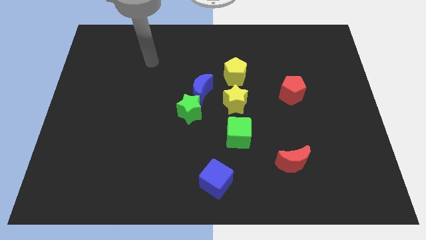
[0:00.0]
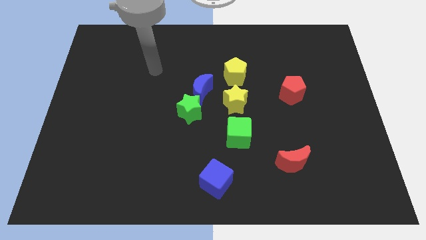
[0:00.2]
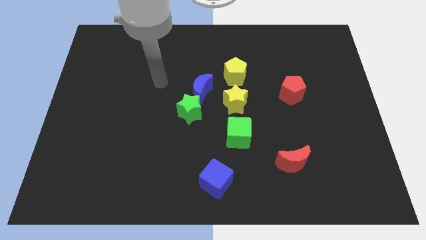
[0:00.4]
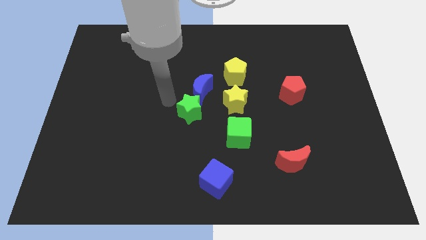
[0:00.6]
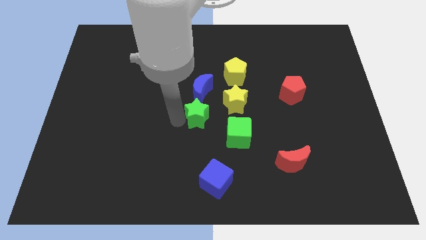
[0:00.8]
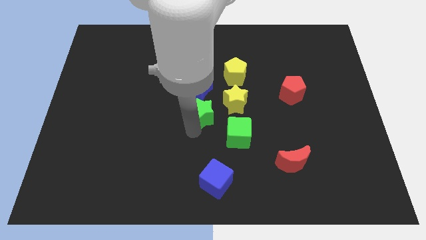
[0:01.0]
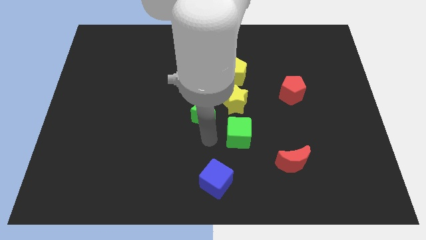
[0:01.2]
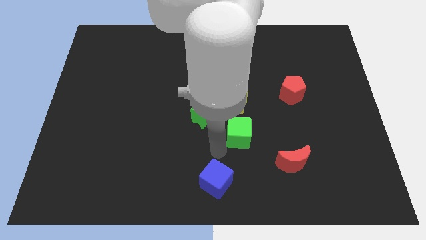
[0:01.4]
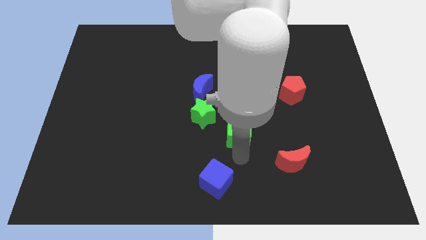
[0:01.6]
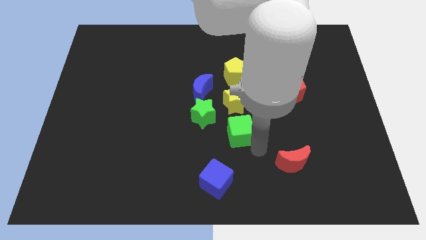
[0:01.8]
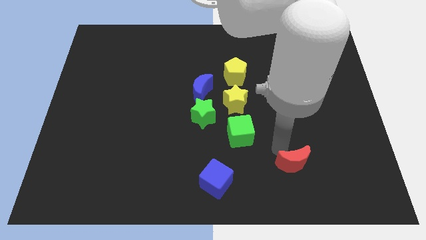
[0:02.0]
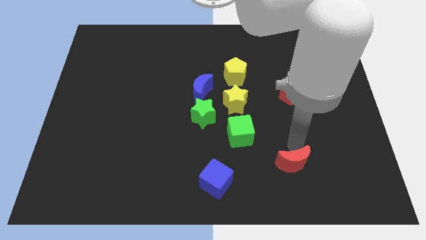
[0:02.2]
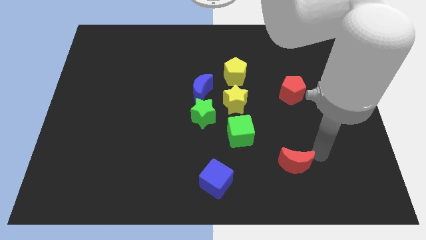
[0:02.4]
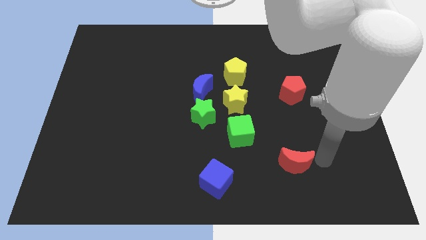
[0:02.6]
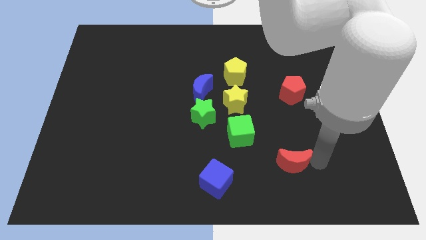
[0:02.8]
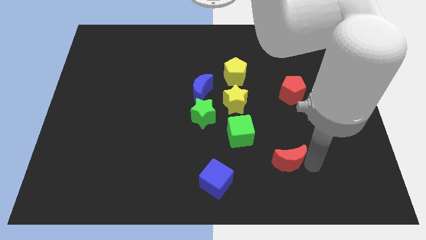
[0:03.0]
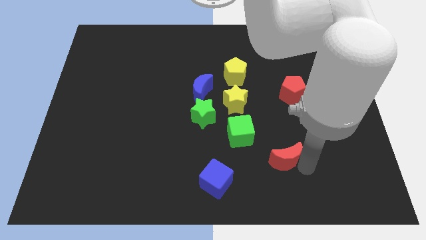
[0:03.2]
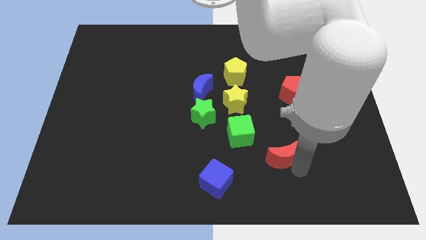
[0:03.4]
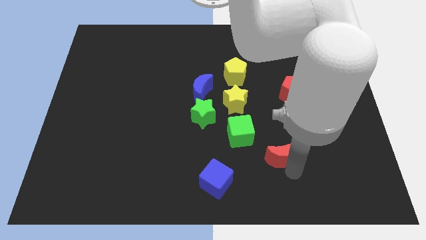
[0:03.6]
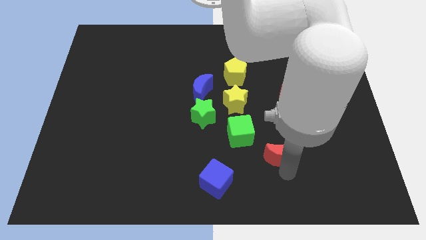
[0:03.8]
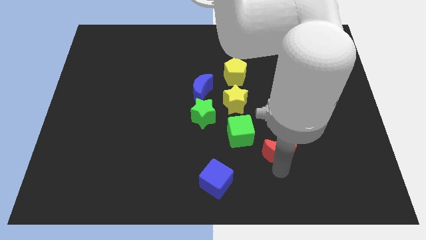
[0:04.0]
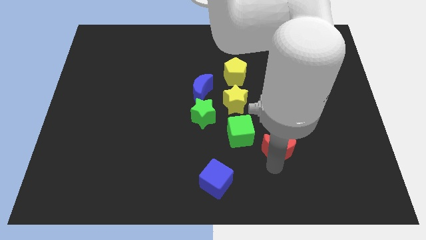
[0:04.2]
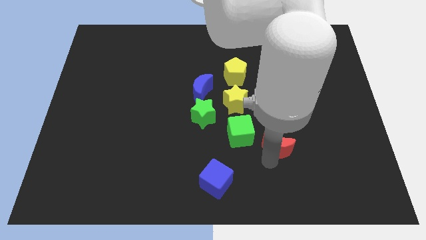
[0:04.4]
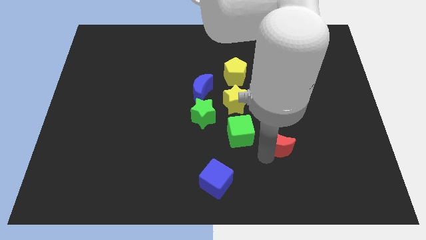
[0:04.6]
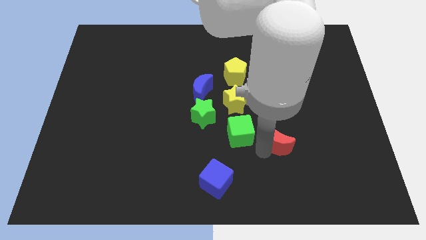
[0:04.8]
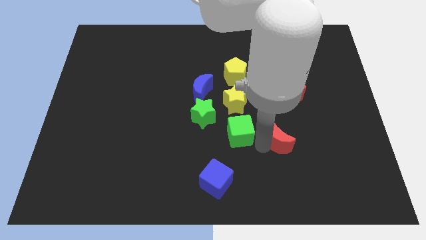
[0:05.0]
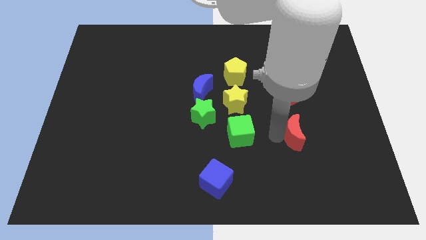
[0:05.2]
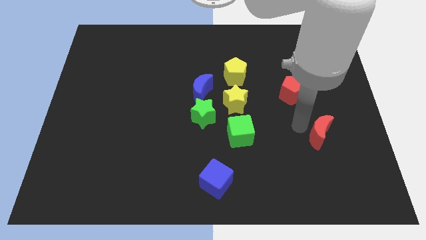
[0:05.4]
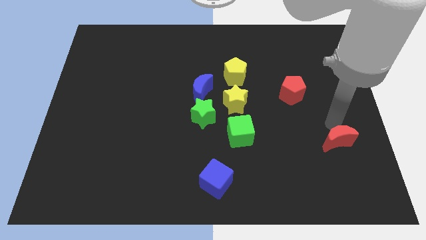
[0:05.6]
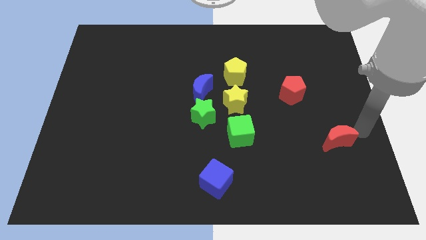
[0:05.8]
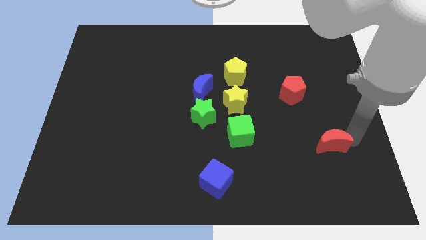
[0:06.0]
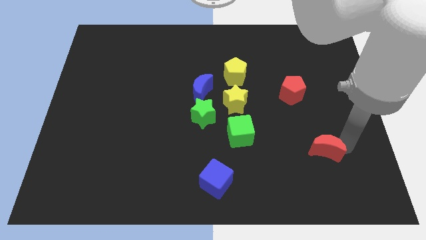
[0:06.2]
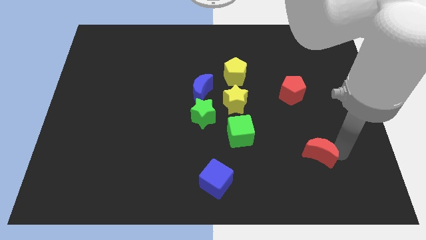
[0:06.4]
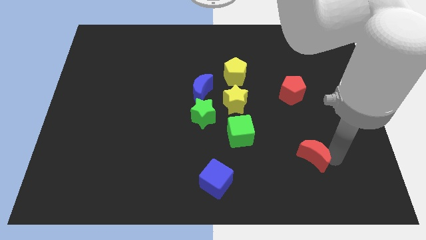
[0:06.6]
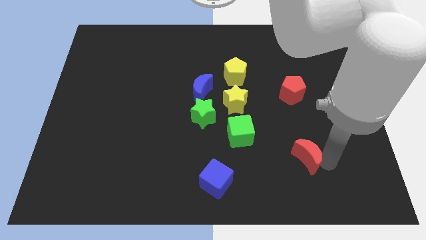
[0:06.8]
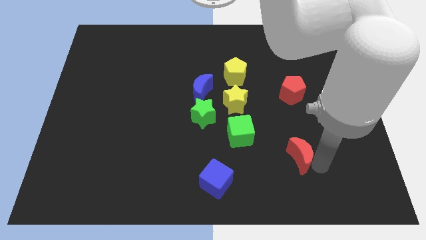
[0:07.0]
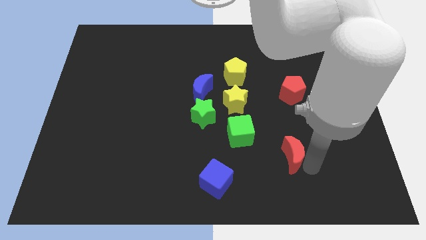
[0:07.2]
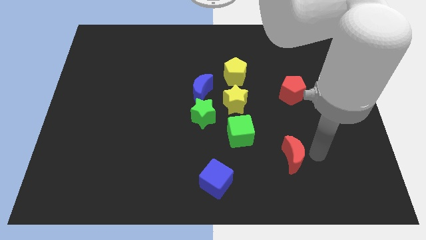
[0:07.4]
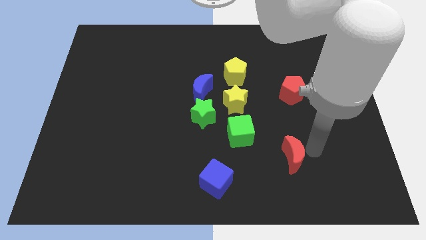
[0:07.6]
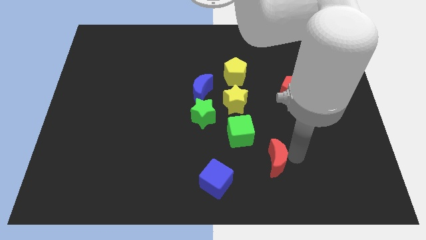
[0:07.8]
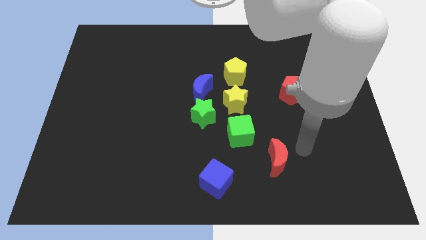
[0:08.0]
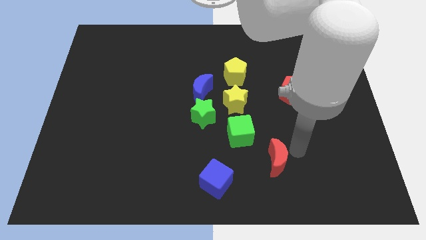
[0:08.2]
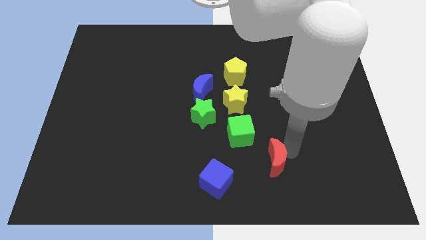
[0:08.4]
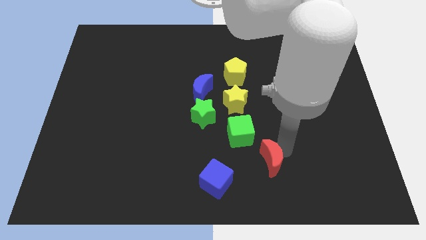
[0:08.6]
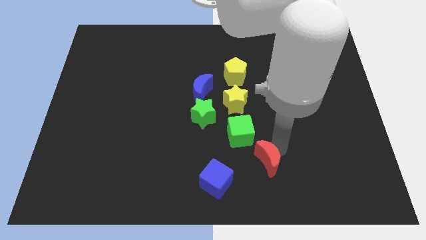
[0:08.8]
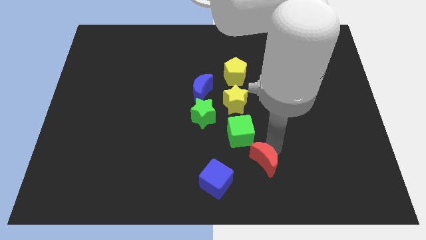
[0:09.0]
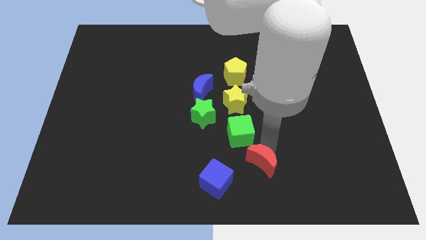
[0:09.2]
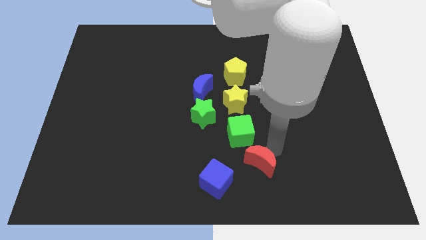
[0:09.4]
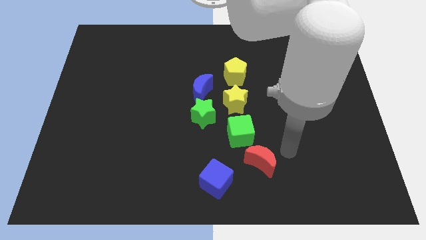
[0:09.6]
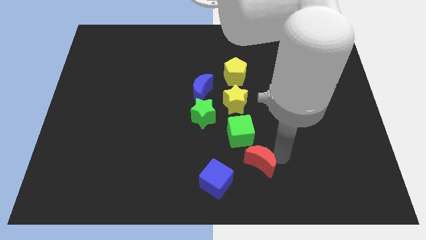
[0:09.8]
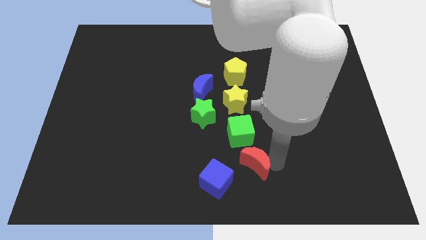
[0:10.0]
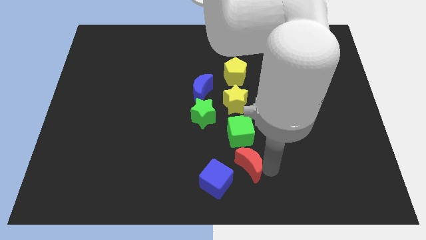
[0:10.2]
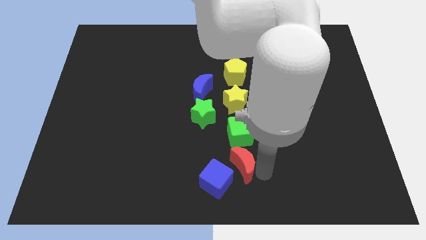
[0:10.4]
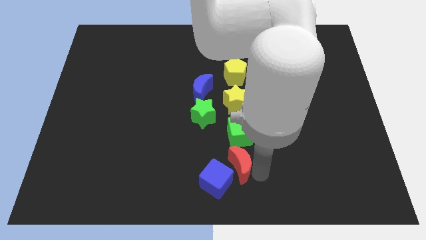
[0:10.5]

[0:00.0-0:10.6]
put the red moon to the blue cube

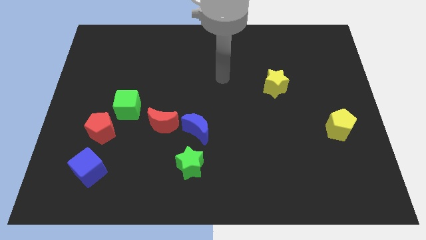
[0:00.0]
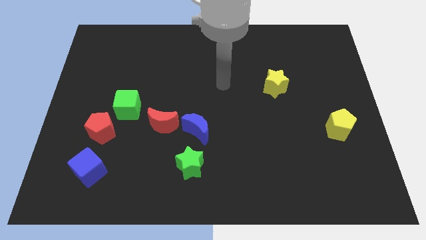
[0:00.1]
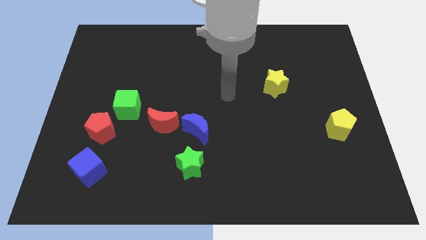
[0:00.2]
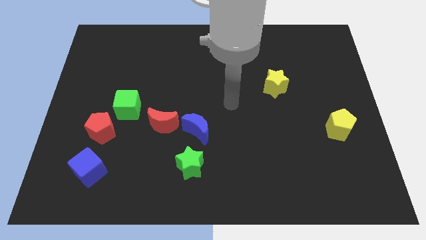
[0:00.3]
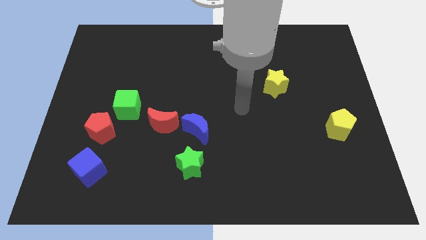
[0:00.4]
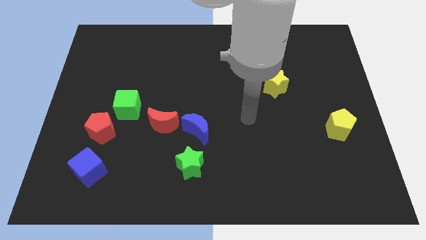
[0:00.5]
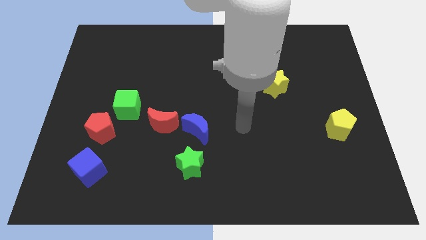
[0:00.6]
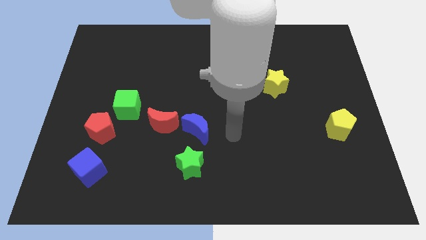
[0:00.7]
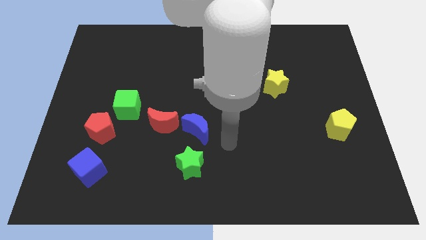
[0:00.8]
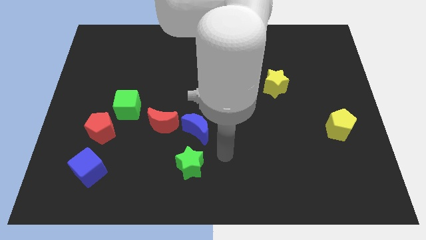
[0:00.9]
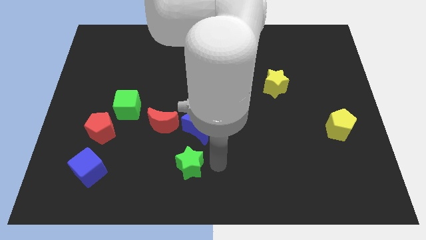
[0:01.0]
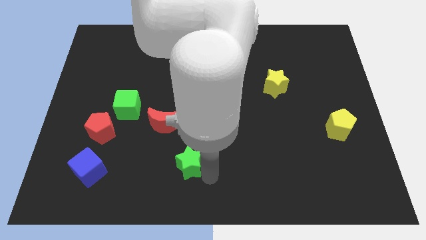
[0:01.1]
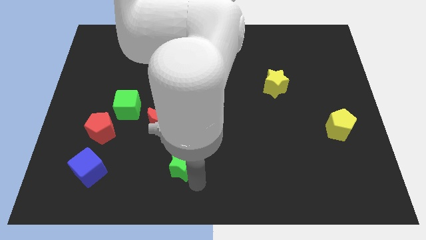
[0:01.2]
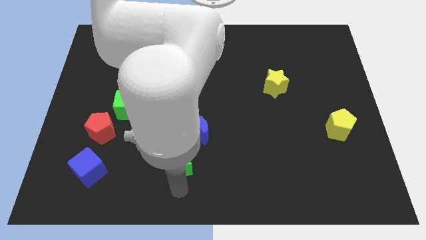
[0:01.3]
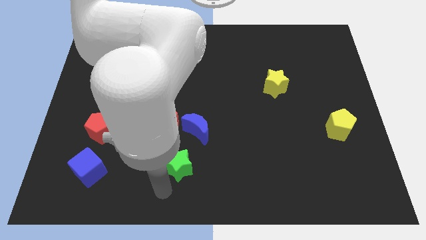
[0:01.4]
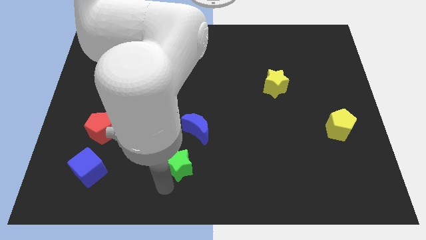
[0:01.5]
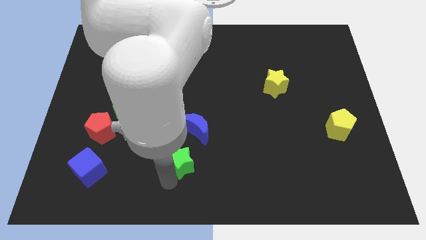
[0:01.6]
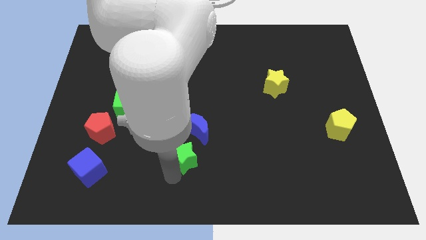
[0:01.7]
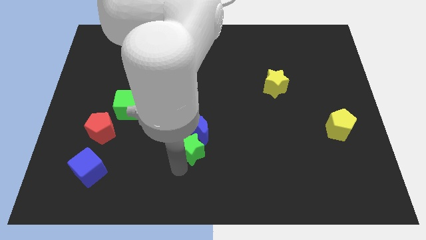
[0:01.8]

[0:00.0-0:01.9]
slide the green star next to the blue moon
